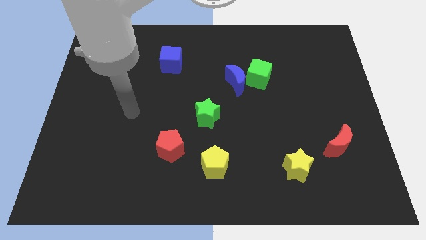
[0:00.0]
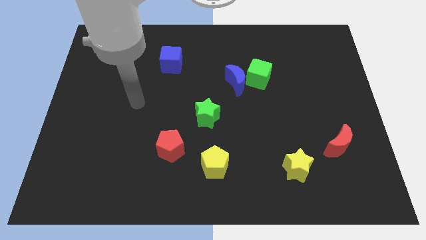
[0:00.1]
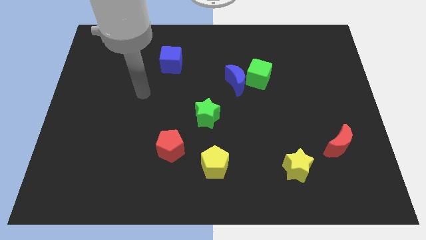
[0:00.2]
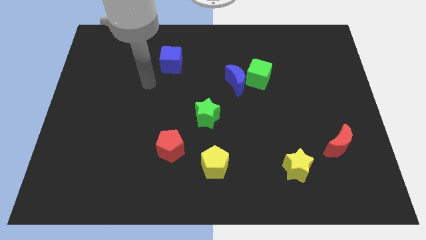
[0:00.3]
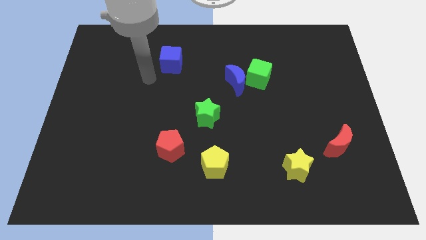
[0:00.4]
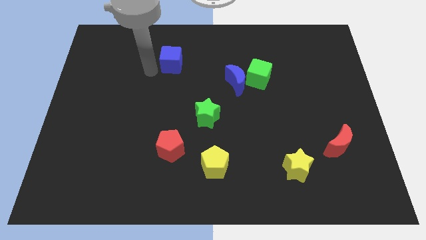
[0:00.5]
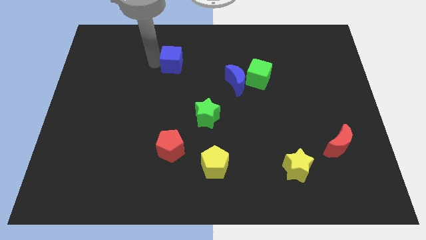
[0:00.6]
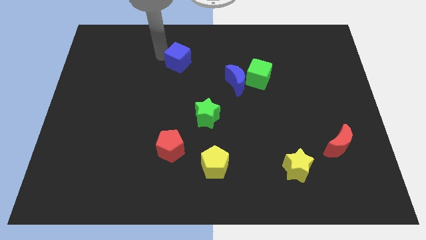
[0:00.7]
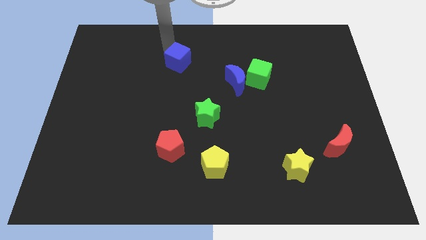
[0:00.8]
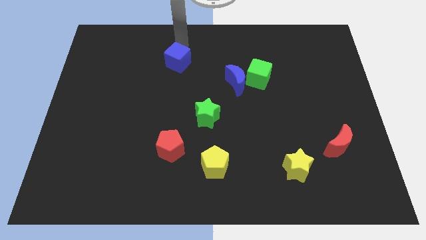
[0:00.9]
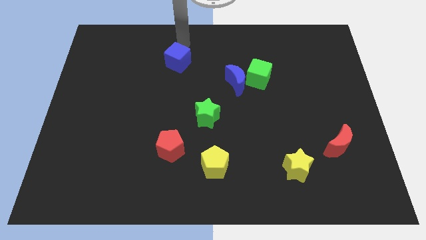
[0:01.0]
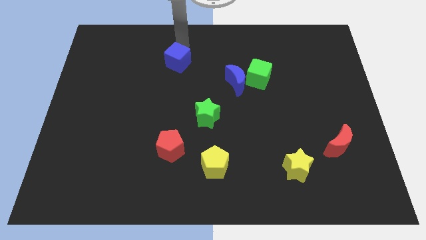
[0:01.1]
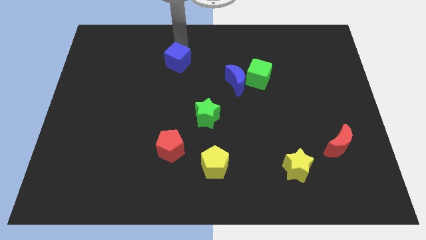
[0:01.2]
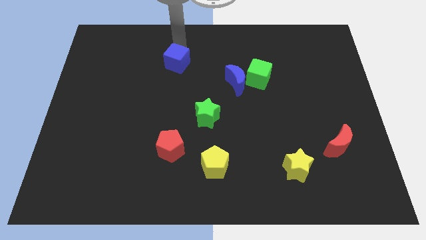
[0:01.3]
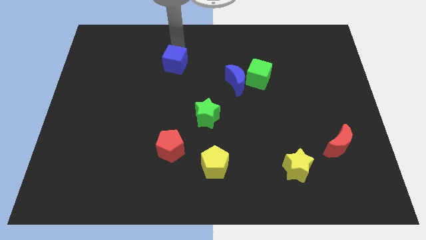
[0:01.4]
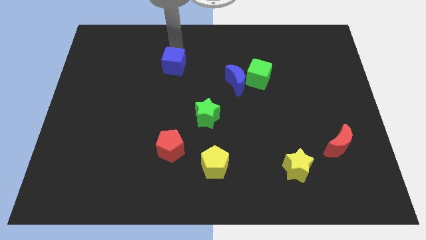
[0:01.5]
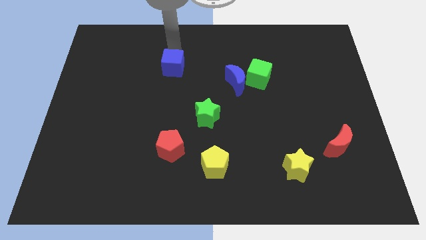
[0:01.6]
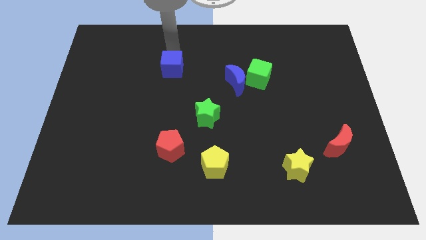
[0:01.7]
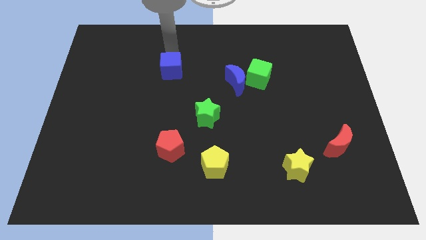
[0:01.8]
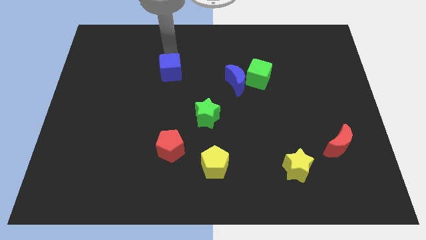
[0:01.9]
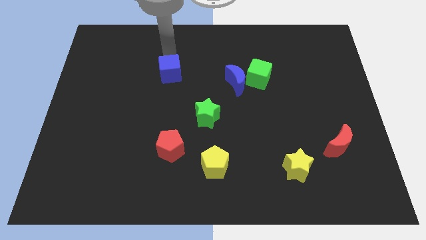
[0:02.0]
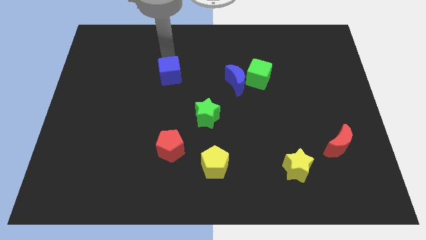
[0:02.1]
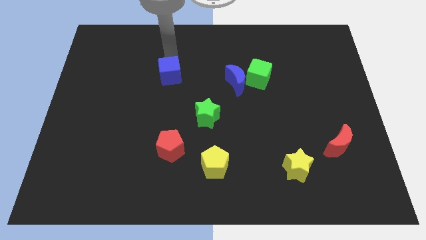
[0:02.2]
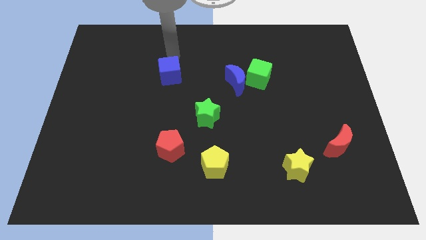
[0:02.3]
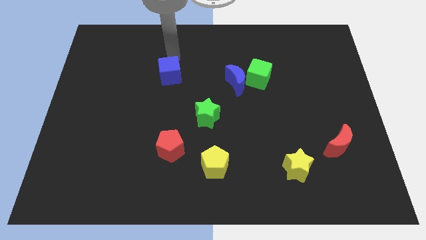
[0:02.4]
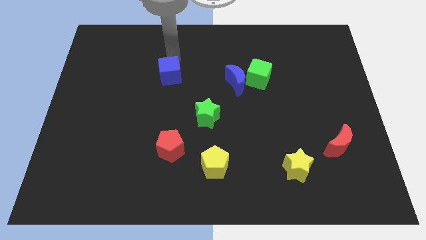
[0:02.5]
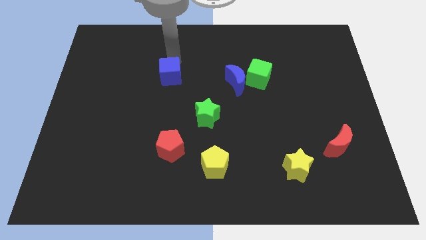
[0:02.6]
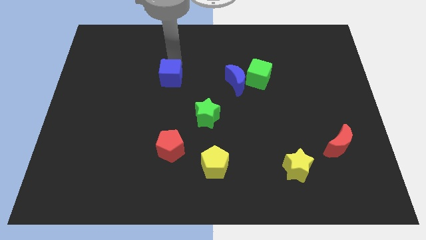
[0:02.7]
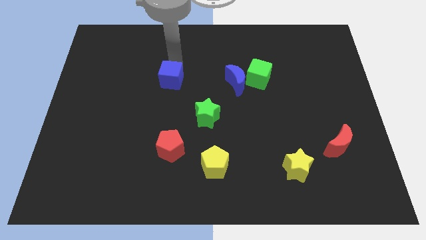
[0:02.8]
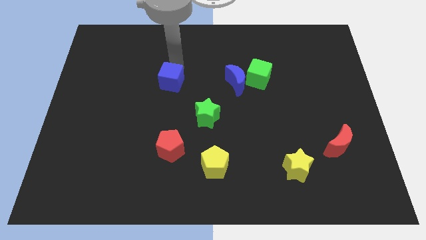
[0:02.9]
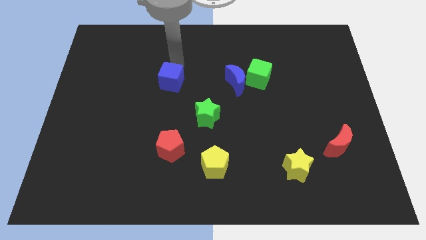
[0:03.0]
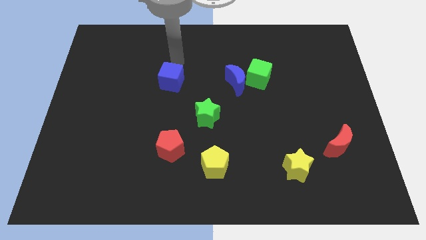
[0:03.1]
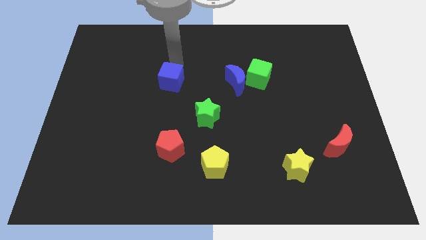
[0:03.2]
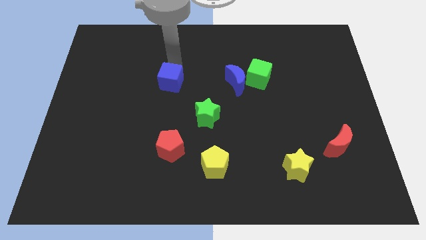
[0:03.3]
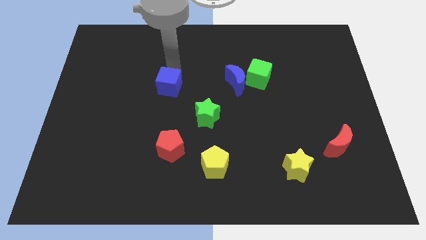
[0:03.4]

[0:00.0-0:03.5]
slide the blue cube somewhat downwards

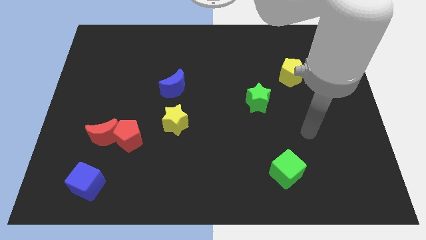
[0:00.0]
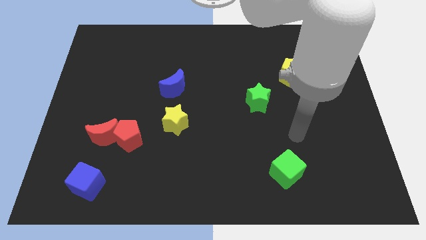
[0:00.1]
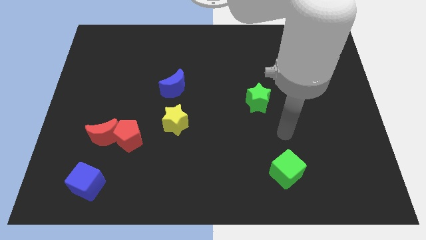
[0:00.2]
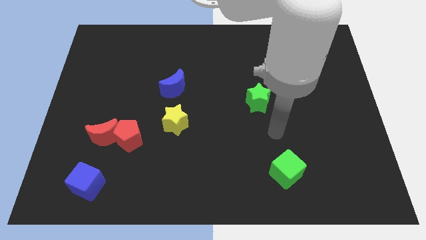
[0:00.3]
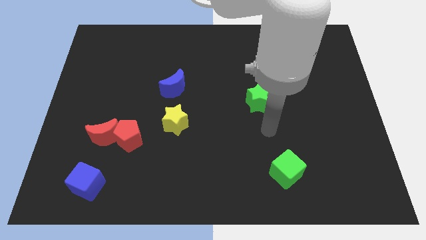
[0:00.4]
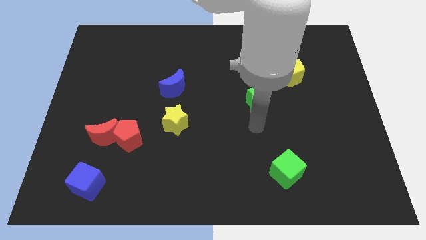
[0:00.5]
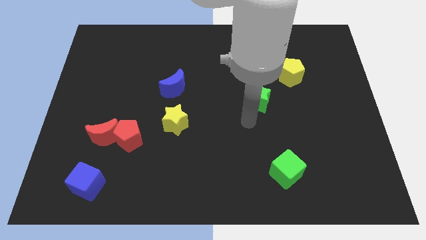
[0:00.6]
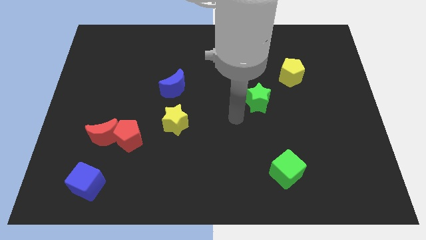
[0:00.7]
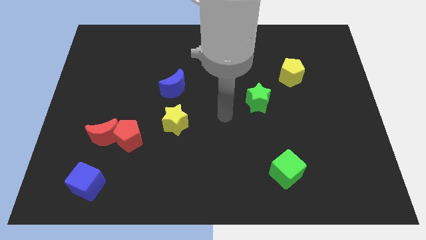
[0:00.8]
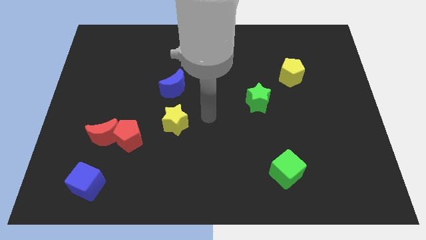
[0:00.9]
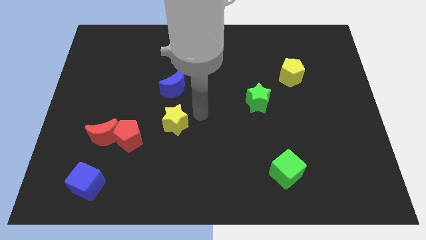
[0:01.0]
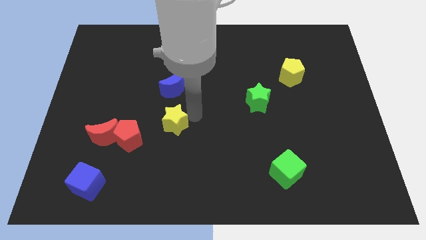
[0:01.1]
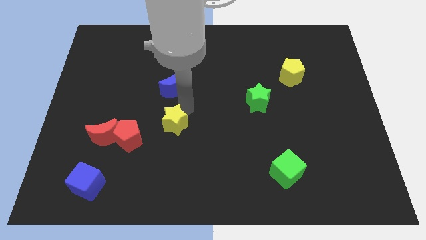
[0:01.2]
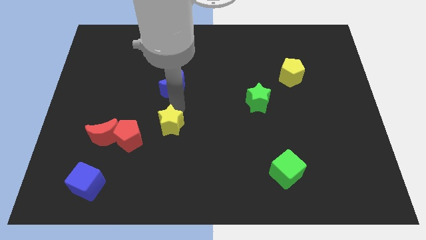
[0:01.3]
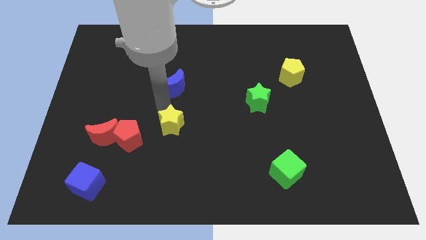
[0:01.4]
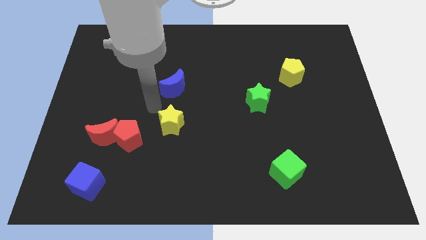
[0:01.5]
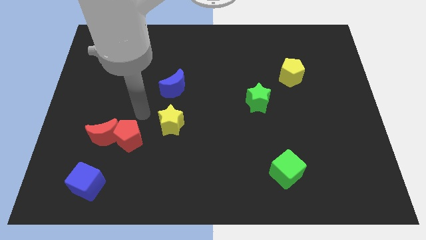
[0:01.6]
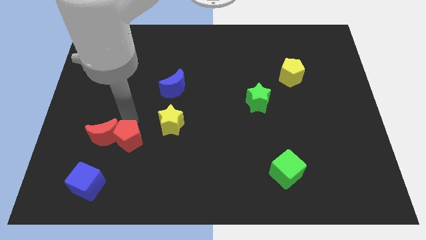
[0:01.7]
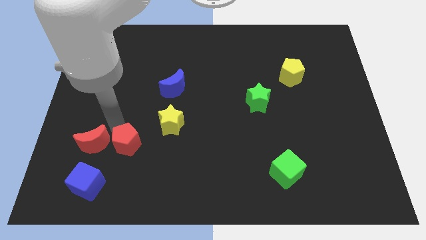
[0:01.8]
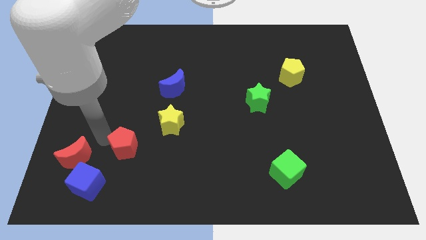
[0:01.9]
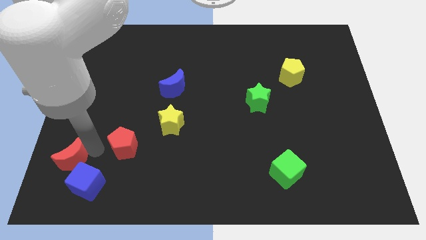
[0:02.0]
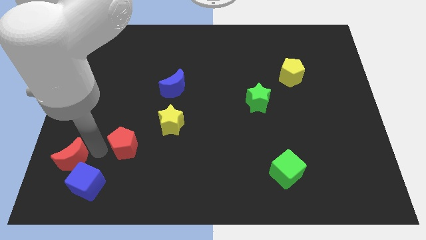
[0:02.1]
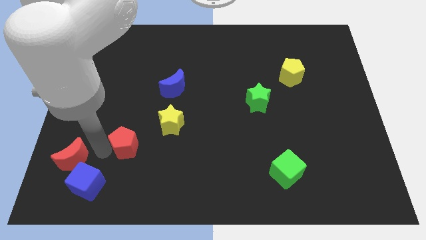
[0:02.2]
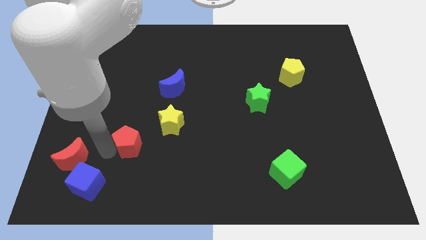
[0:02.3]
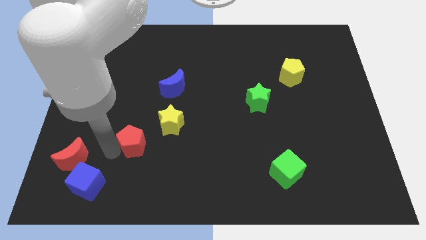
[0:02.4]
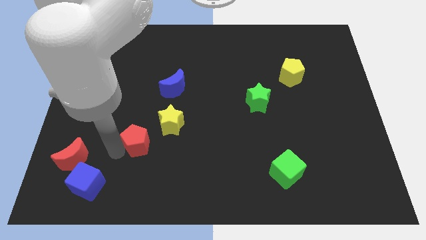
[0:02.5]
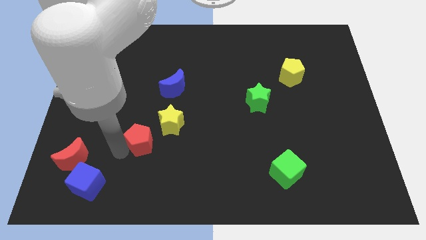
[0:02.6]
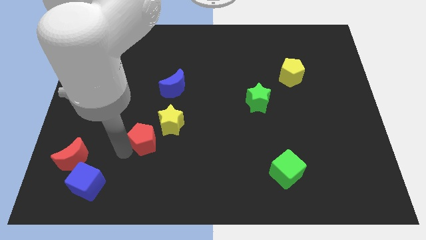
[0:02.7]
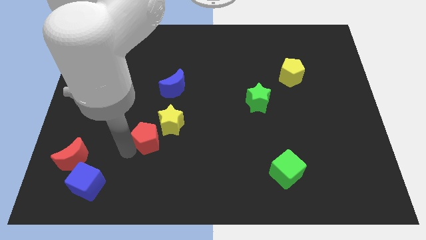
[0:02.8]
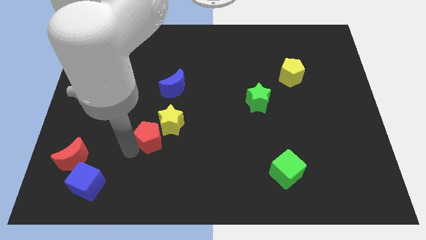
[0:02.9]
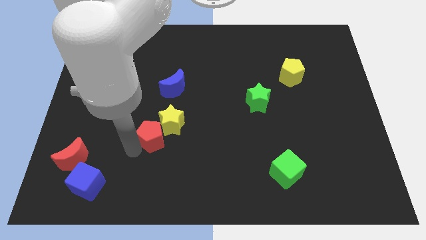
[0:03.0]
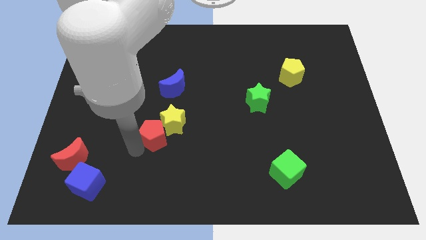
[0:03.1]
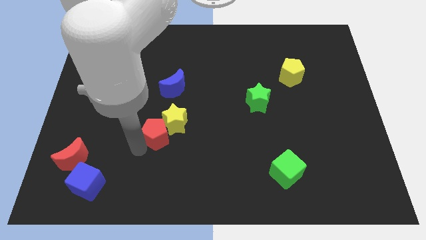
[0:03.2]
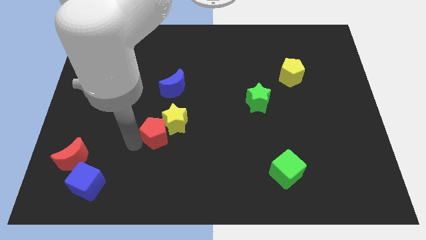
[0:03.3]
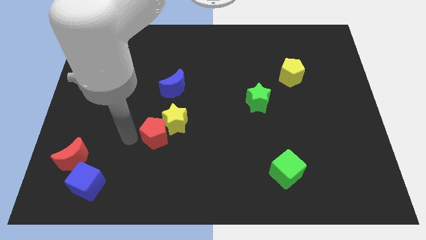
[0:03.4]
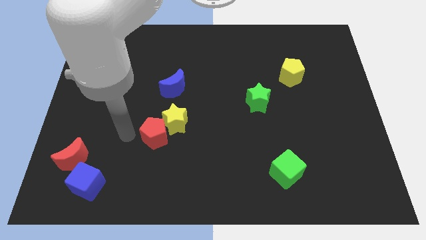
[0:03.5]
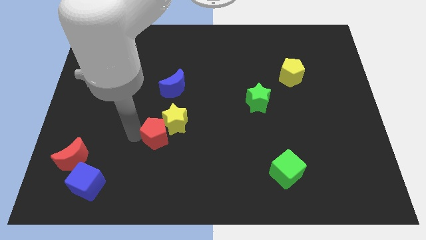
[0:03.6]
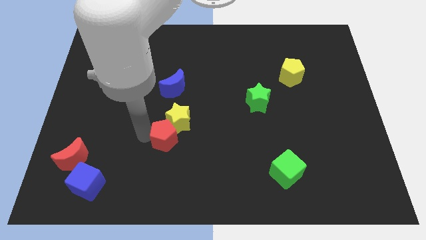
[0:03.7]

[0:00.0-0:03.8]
move the red pentagon somewhat right

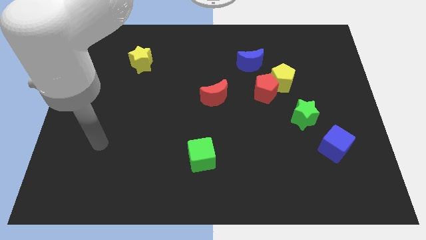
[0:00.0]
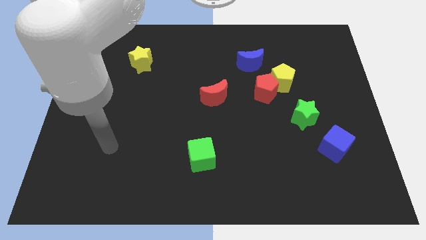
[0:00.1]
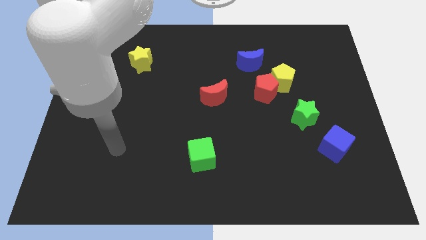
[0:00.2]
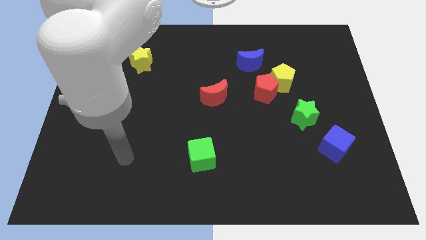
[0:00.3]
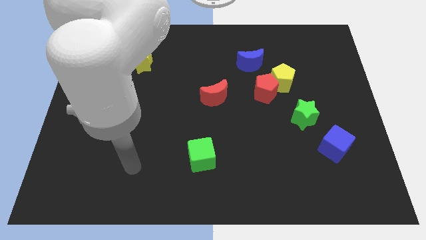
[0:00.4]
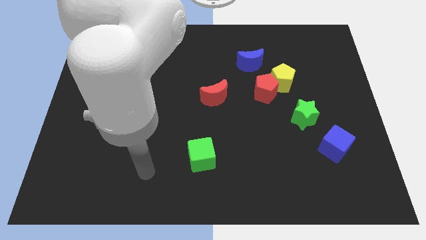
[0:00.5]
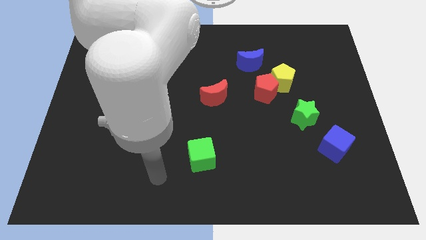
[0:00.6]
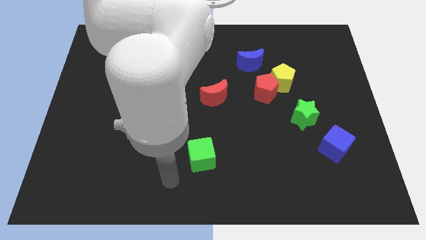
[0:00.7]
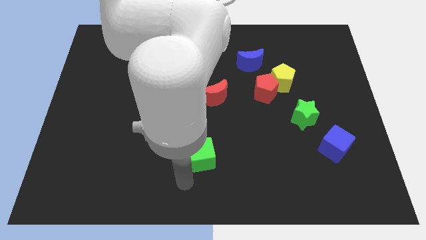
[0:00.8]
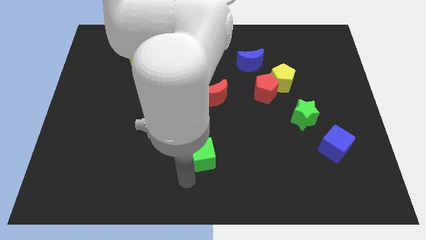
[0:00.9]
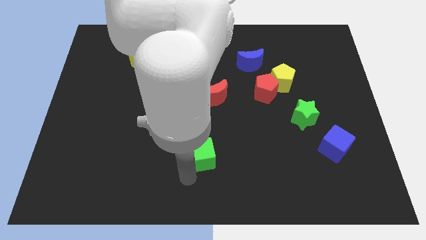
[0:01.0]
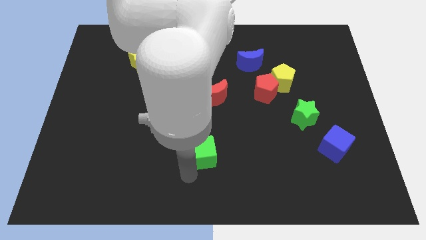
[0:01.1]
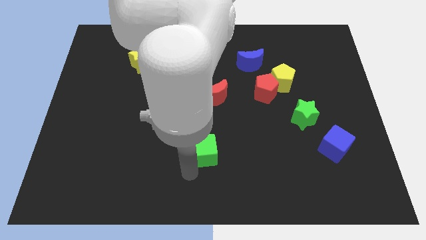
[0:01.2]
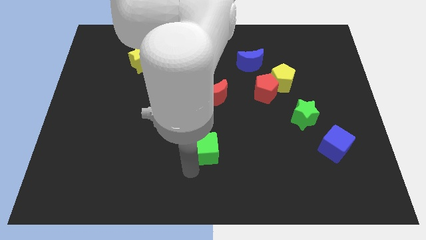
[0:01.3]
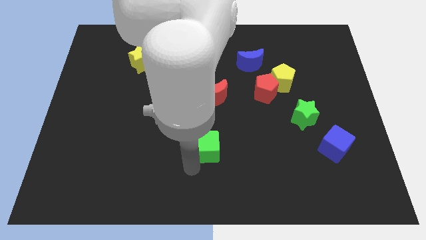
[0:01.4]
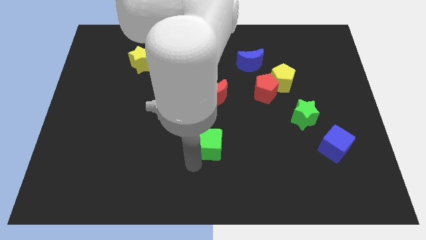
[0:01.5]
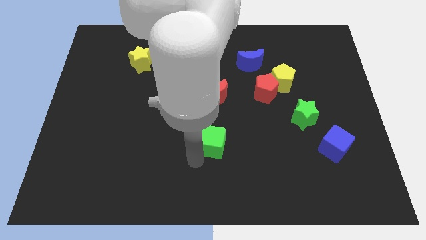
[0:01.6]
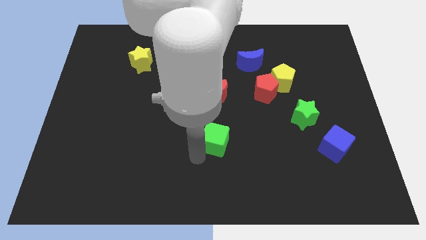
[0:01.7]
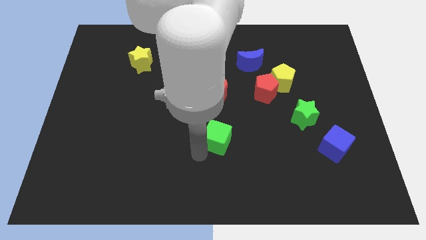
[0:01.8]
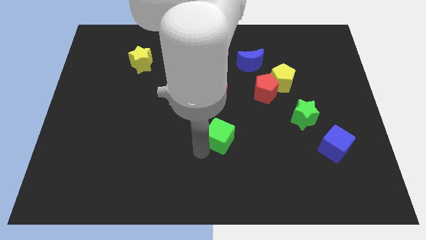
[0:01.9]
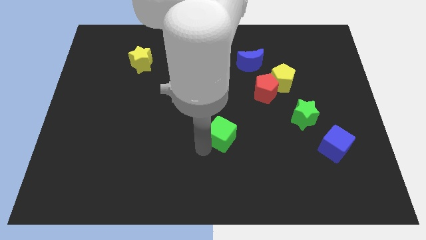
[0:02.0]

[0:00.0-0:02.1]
slide the green cube upwards and right slightly
